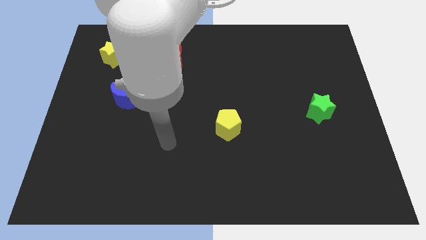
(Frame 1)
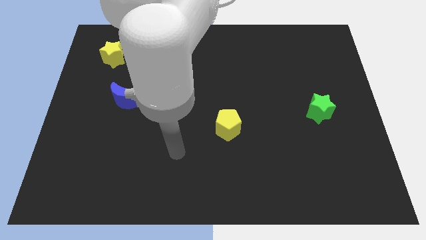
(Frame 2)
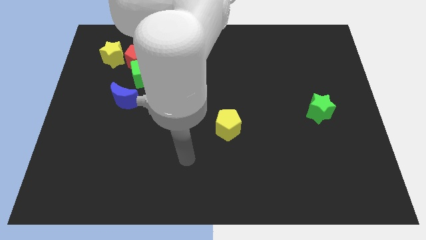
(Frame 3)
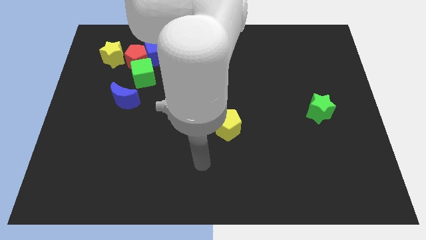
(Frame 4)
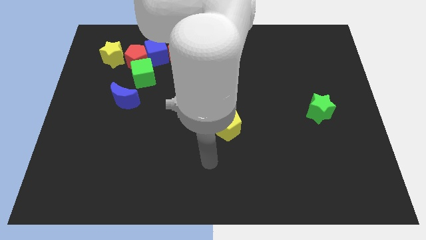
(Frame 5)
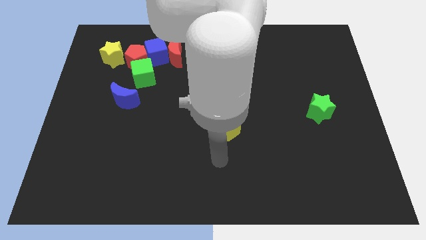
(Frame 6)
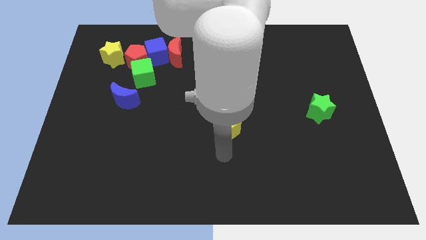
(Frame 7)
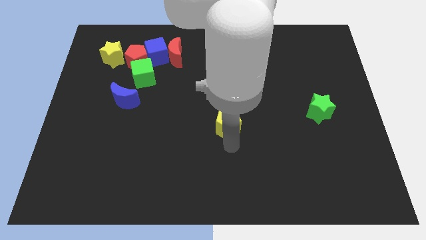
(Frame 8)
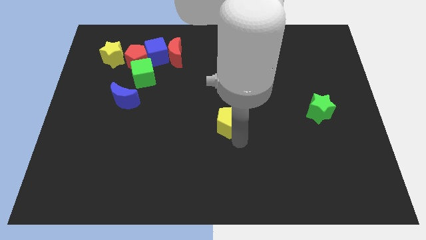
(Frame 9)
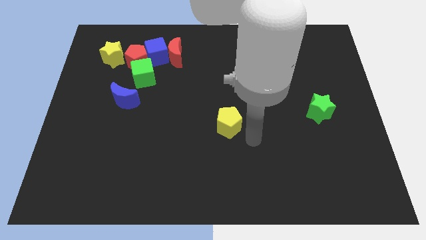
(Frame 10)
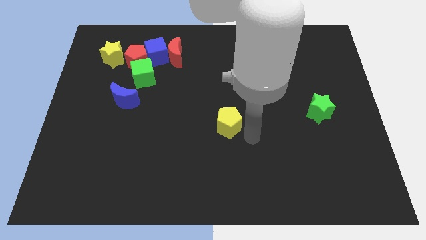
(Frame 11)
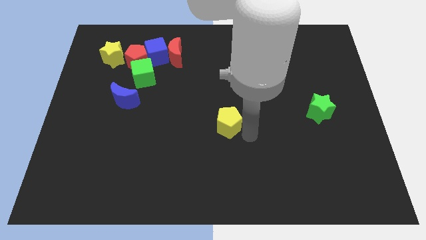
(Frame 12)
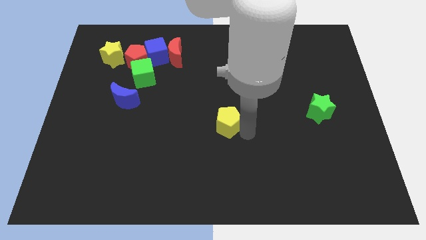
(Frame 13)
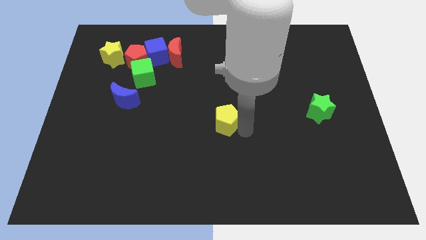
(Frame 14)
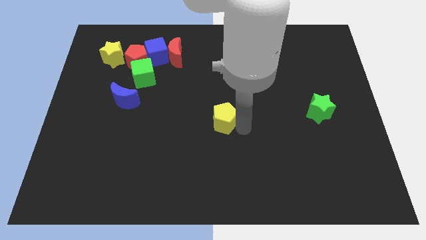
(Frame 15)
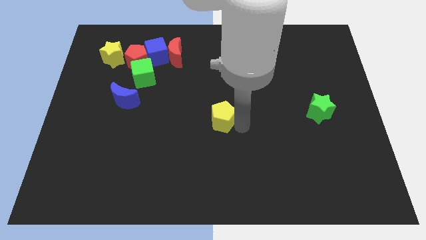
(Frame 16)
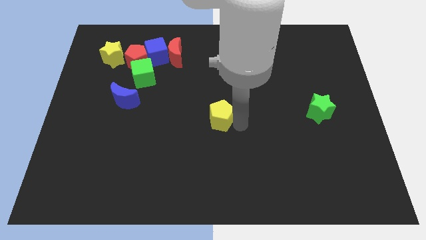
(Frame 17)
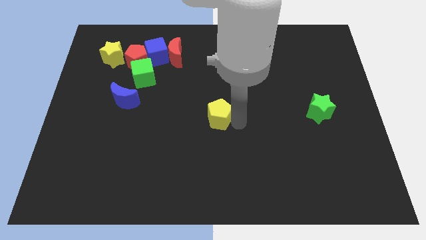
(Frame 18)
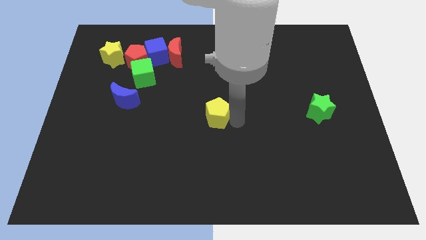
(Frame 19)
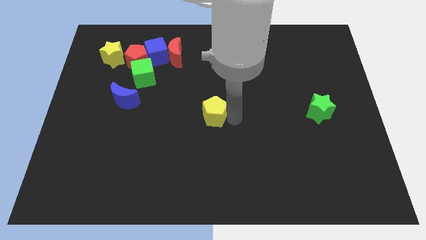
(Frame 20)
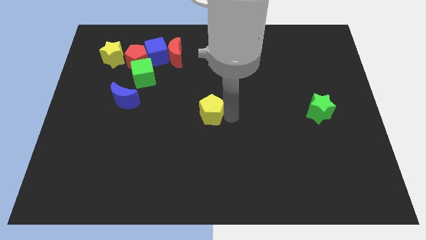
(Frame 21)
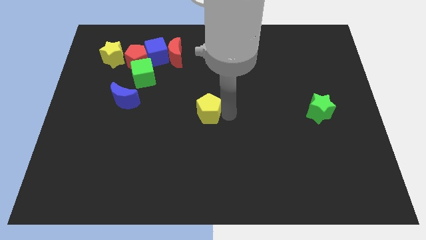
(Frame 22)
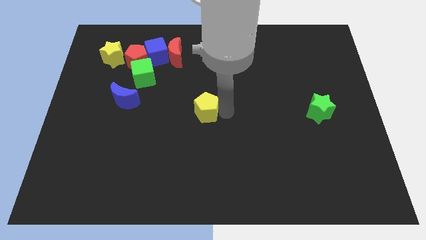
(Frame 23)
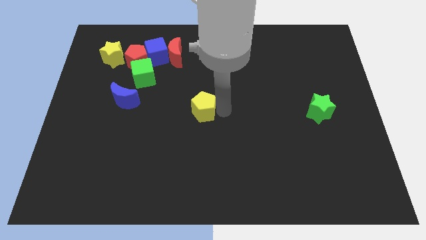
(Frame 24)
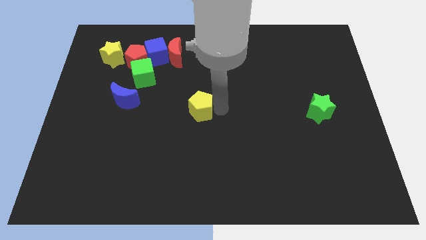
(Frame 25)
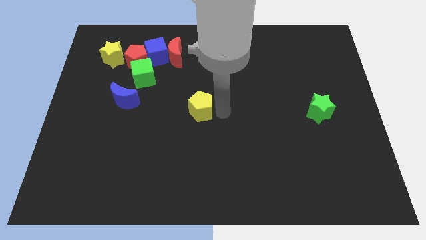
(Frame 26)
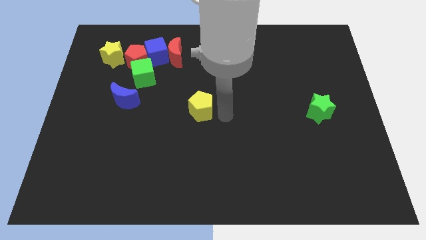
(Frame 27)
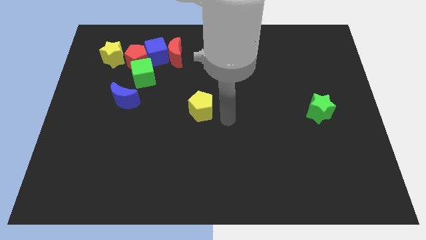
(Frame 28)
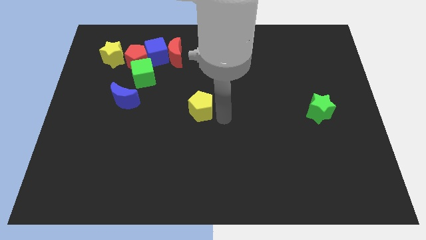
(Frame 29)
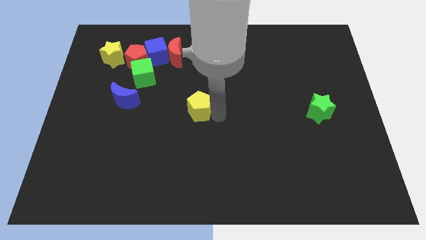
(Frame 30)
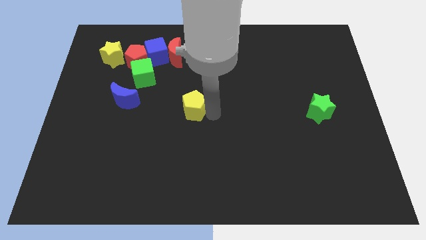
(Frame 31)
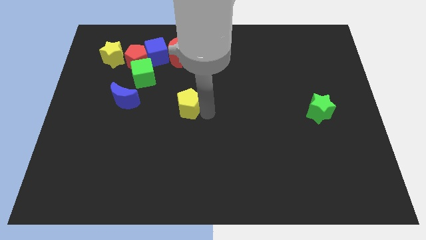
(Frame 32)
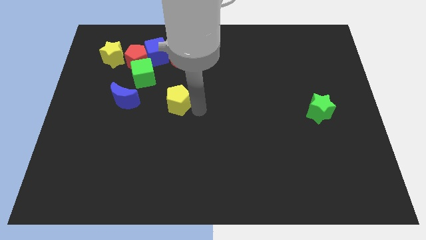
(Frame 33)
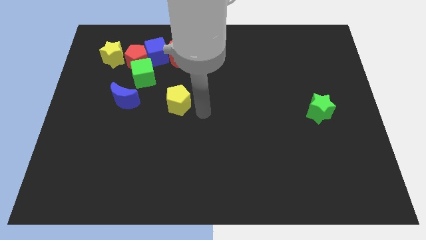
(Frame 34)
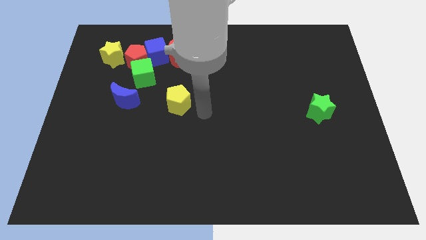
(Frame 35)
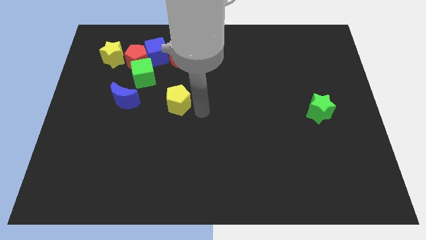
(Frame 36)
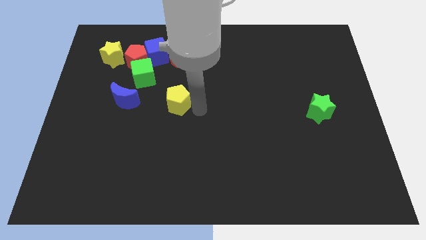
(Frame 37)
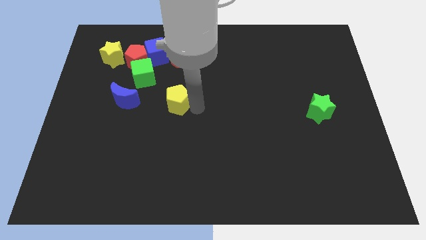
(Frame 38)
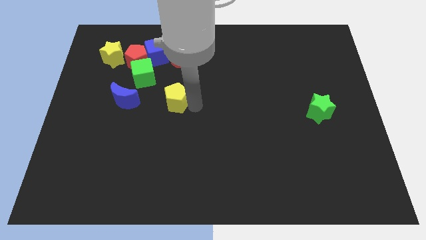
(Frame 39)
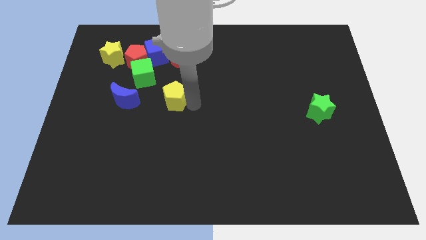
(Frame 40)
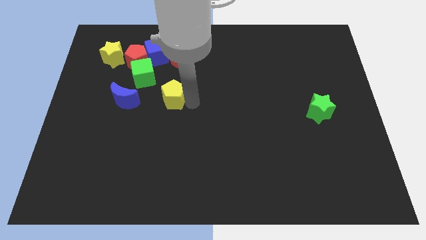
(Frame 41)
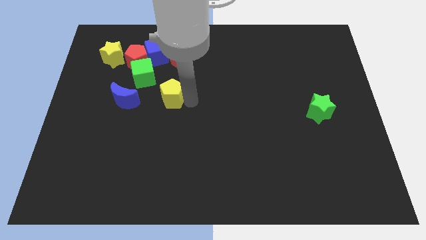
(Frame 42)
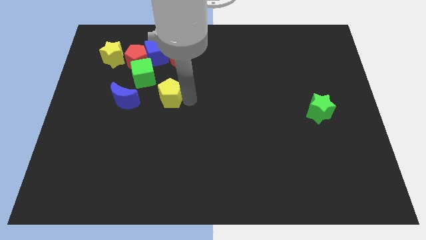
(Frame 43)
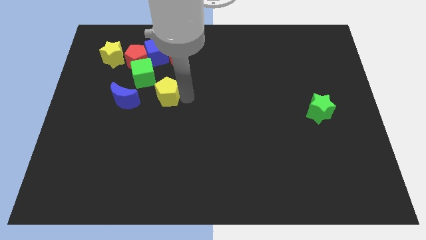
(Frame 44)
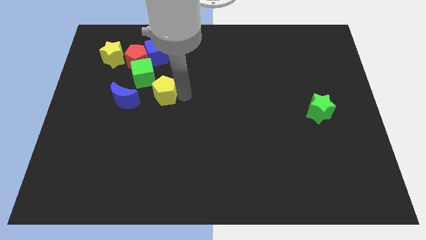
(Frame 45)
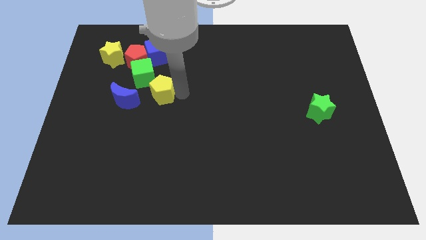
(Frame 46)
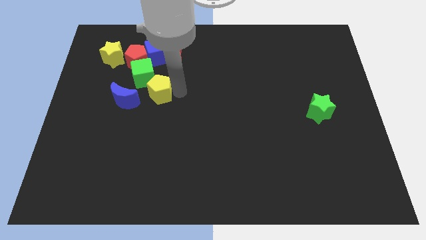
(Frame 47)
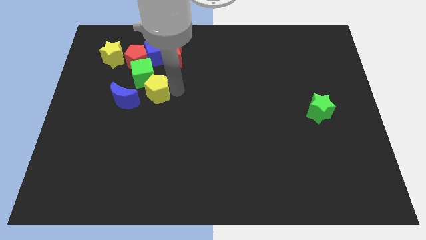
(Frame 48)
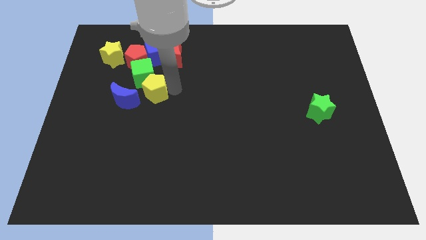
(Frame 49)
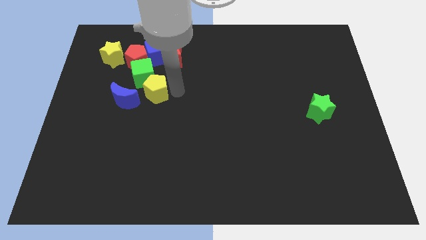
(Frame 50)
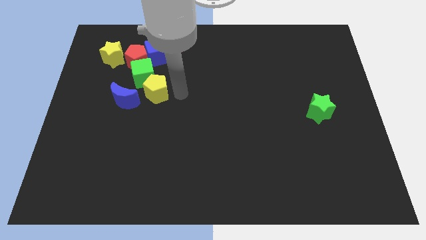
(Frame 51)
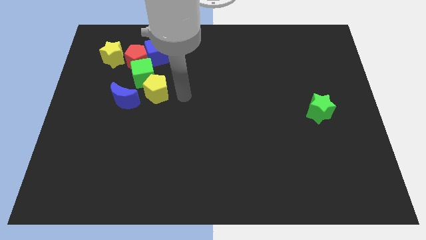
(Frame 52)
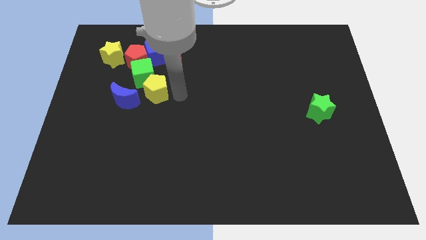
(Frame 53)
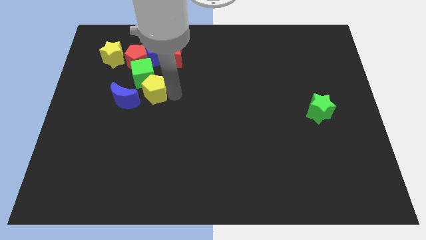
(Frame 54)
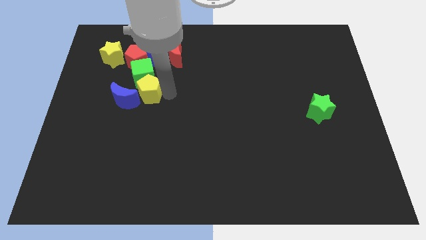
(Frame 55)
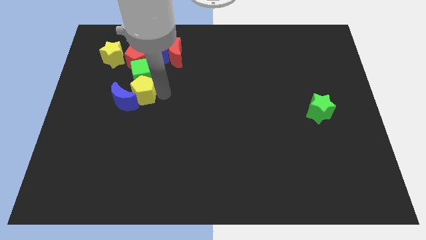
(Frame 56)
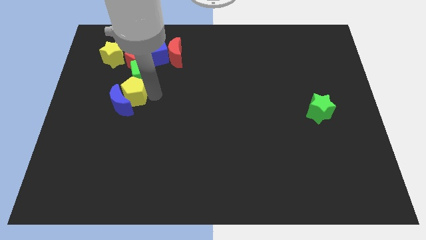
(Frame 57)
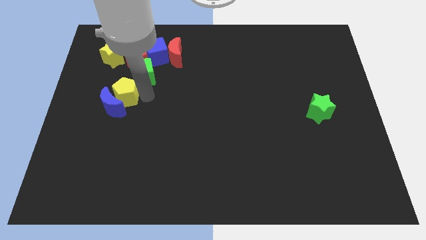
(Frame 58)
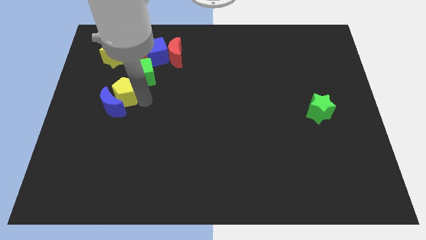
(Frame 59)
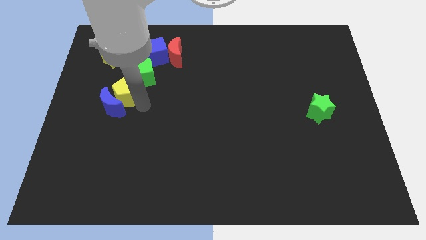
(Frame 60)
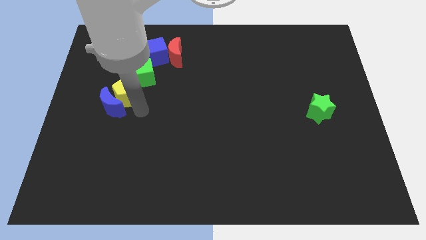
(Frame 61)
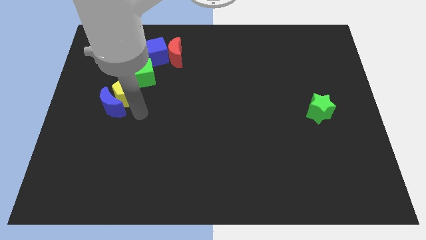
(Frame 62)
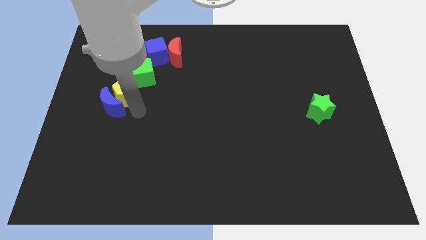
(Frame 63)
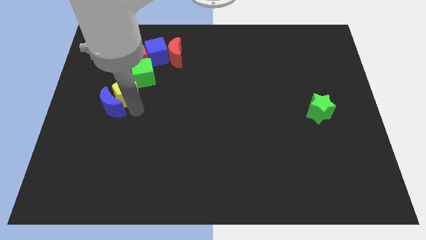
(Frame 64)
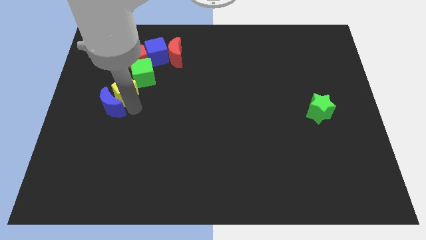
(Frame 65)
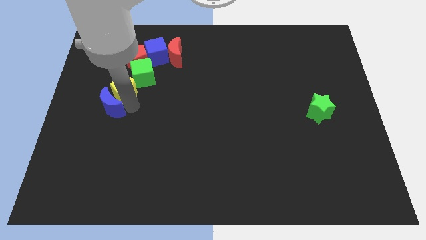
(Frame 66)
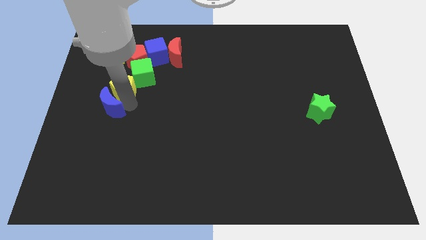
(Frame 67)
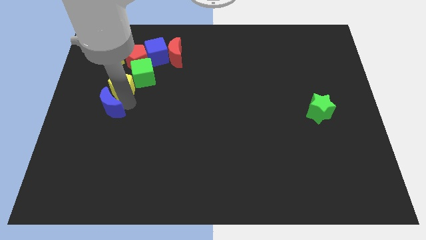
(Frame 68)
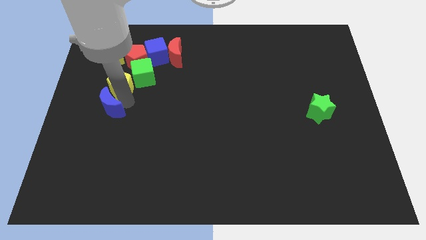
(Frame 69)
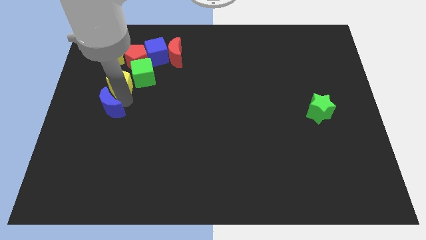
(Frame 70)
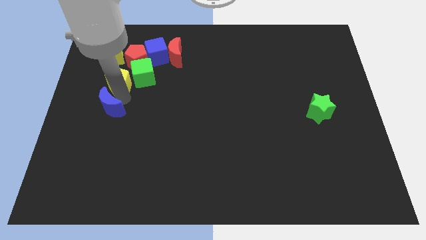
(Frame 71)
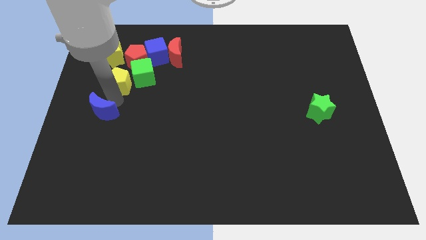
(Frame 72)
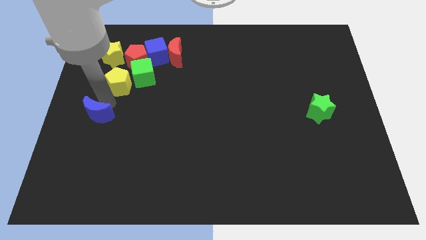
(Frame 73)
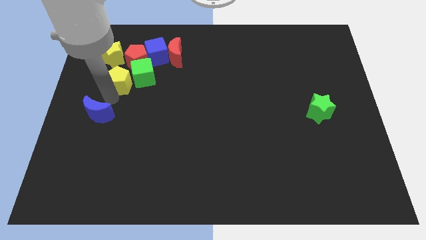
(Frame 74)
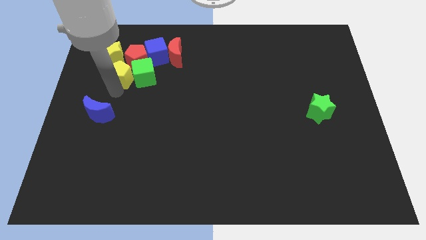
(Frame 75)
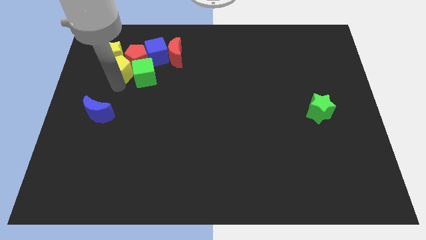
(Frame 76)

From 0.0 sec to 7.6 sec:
slide the yellow pentagon next to the red pentagon

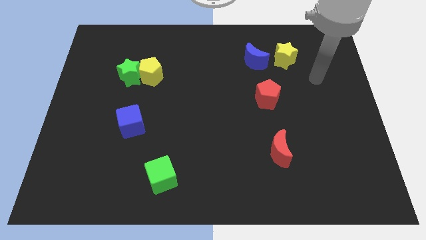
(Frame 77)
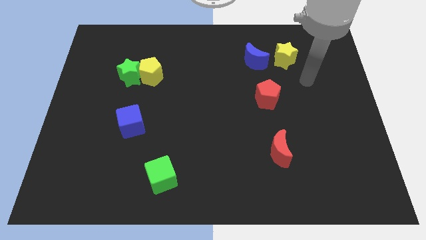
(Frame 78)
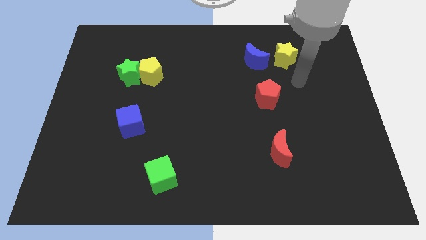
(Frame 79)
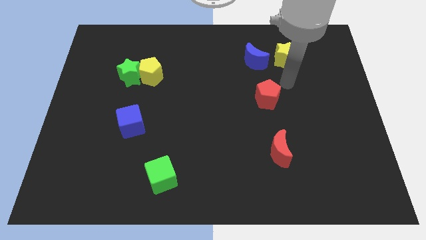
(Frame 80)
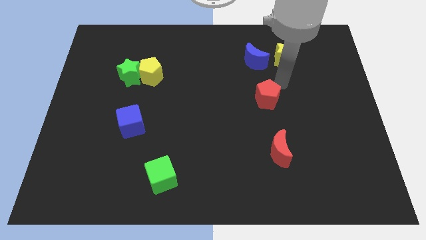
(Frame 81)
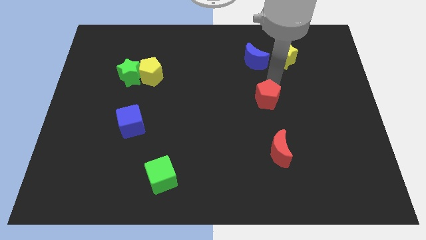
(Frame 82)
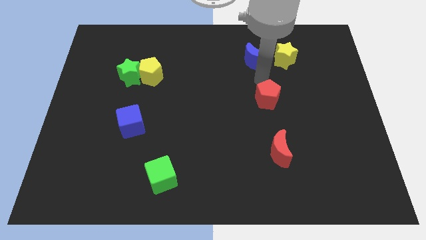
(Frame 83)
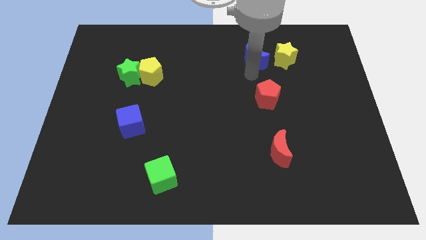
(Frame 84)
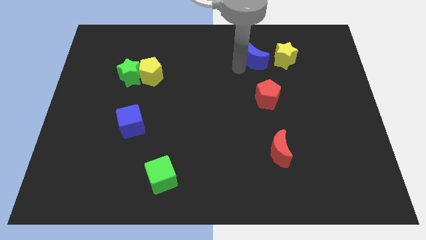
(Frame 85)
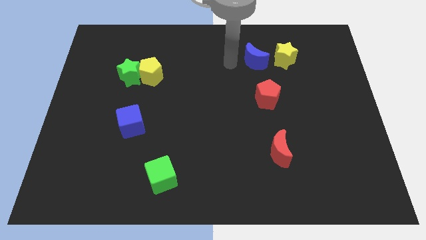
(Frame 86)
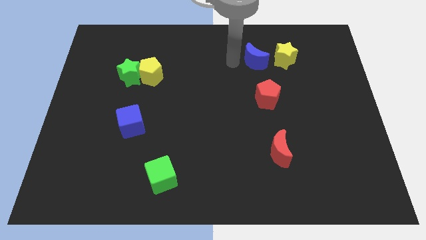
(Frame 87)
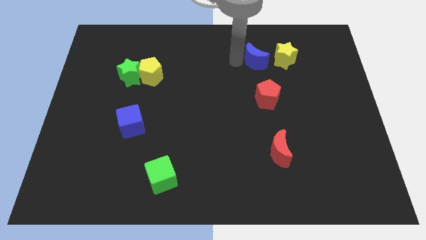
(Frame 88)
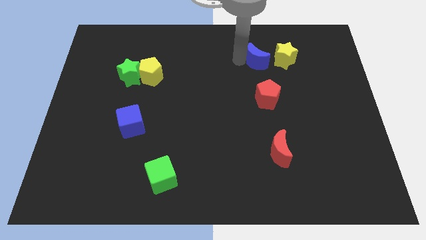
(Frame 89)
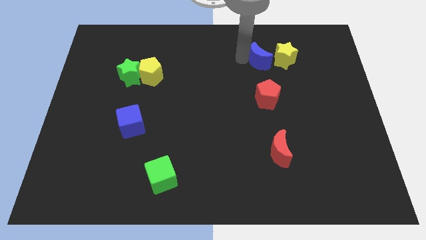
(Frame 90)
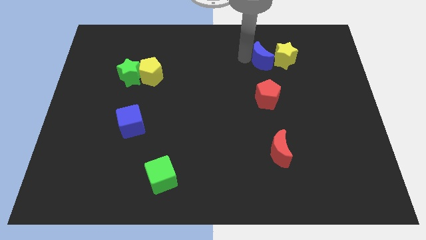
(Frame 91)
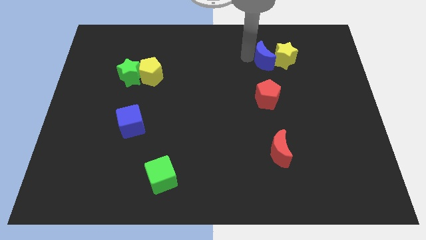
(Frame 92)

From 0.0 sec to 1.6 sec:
put the blue moon towards the yellow star
